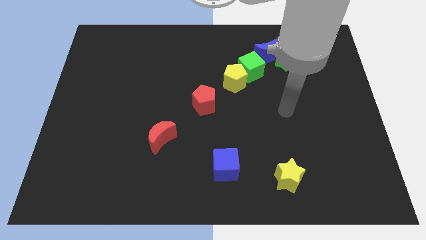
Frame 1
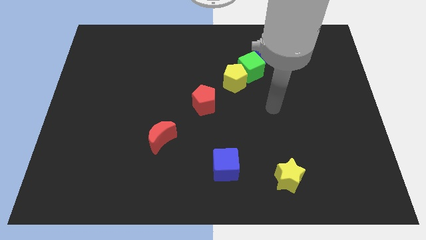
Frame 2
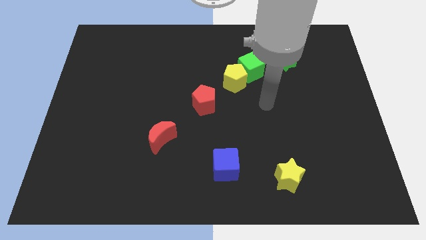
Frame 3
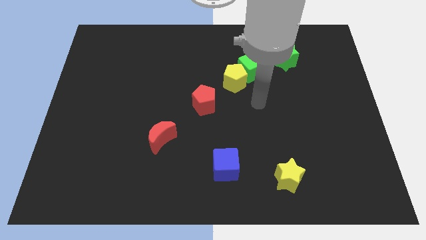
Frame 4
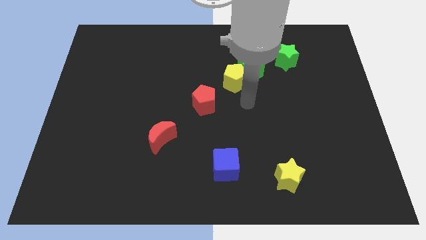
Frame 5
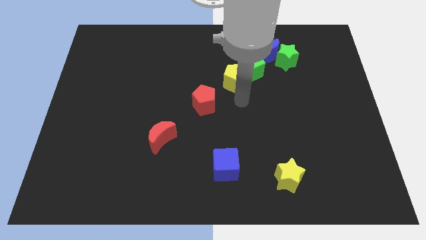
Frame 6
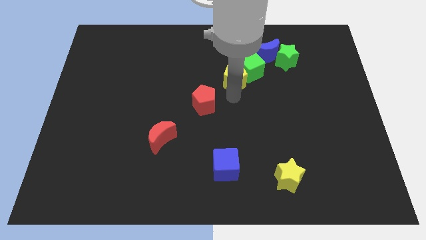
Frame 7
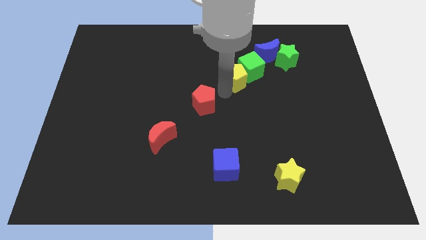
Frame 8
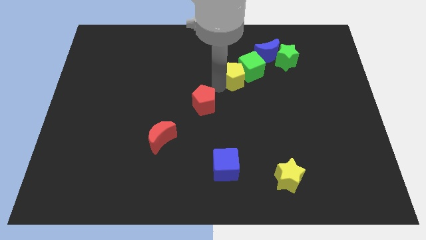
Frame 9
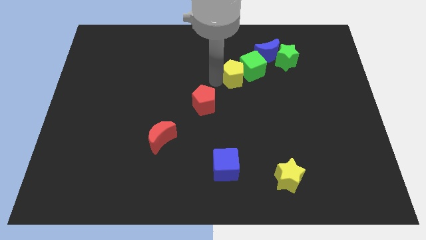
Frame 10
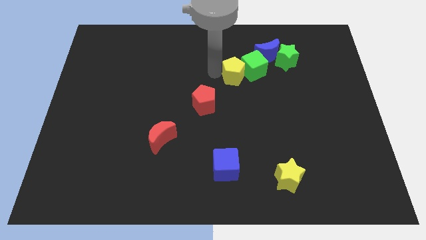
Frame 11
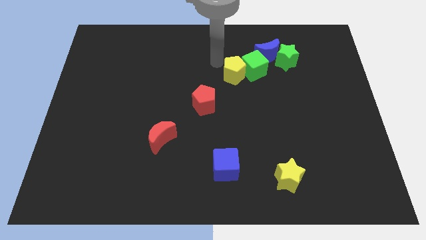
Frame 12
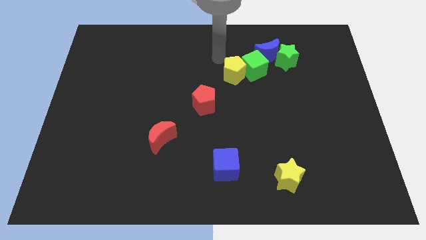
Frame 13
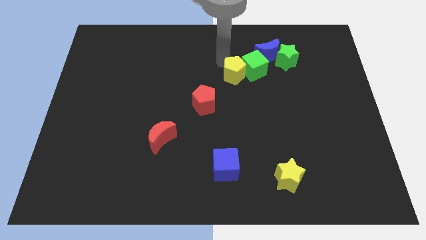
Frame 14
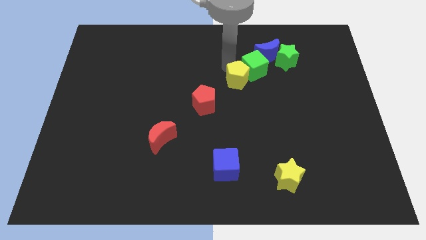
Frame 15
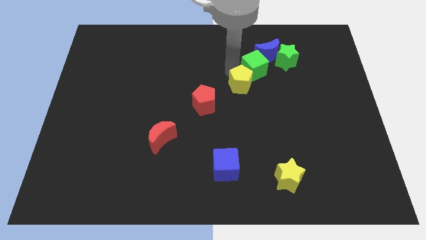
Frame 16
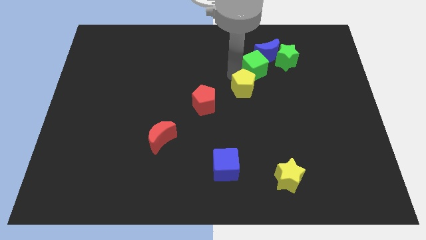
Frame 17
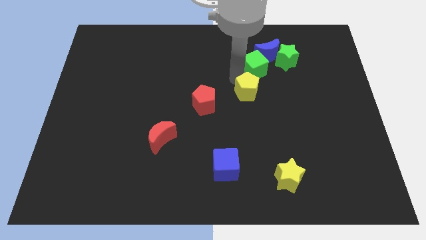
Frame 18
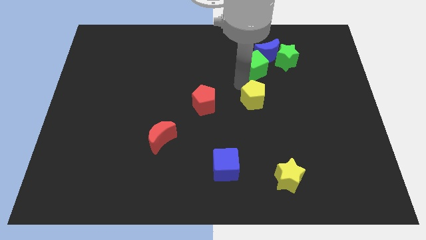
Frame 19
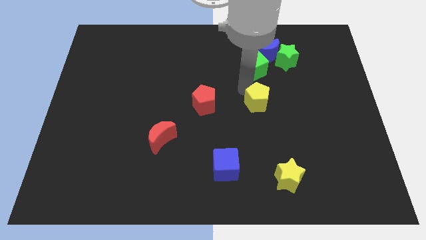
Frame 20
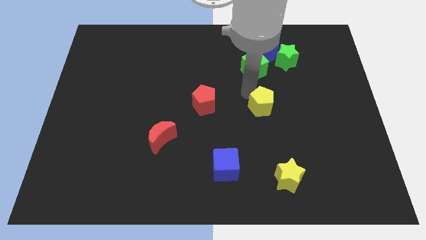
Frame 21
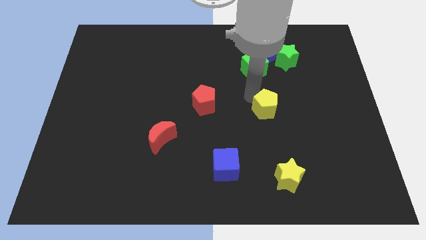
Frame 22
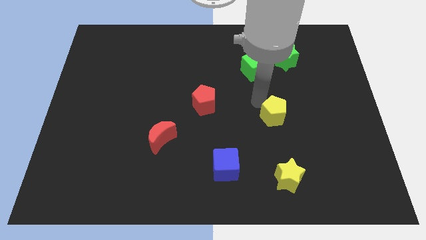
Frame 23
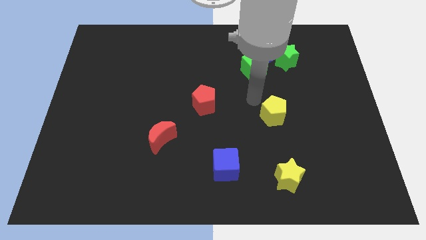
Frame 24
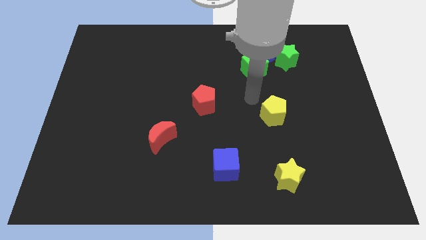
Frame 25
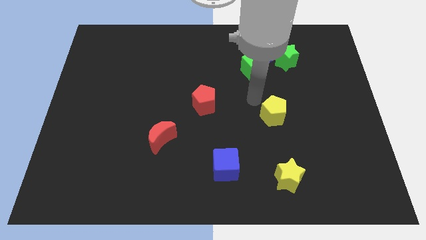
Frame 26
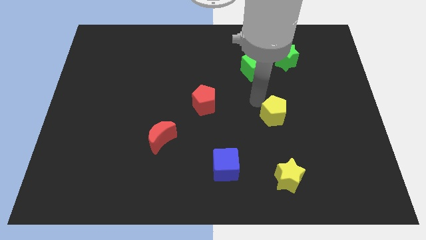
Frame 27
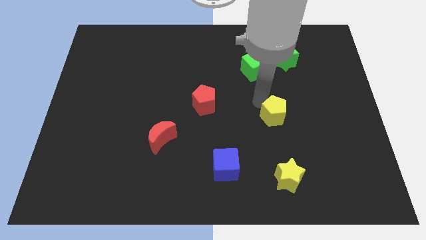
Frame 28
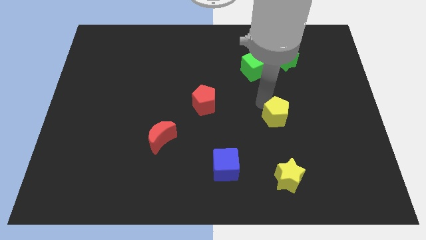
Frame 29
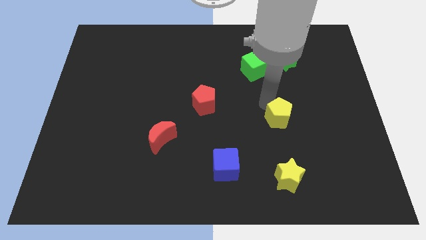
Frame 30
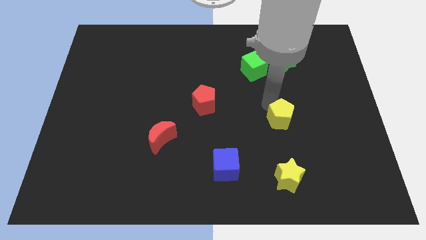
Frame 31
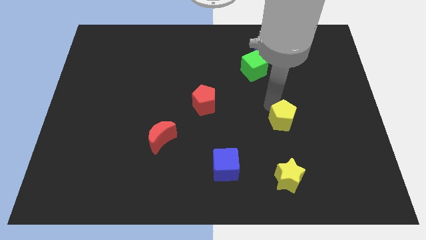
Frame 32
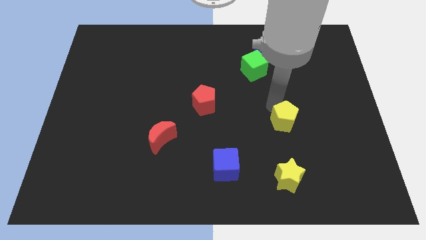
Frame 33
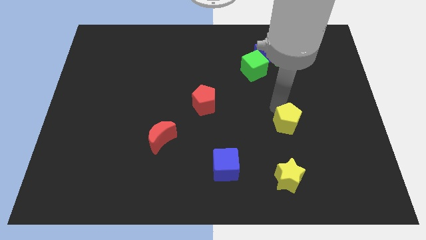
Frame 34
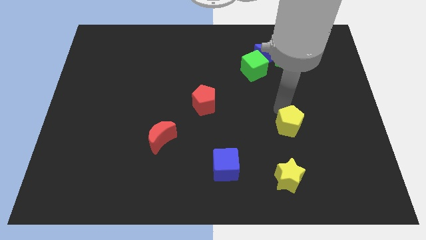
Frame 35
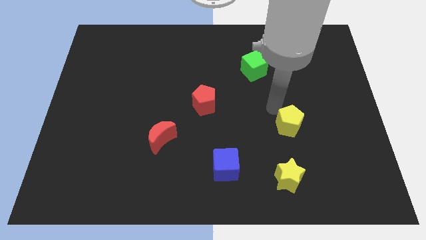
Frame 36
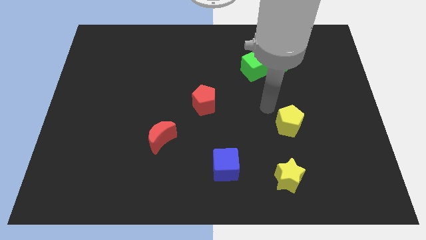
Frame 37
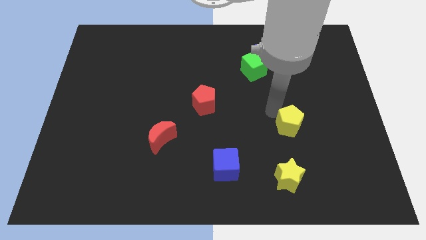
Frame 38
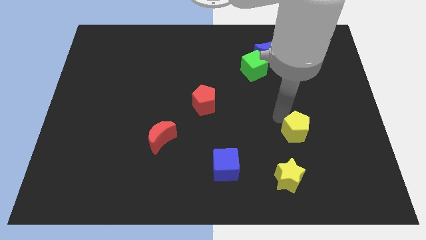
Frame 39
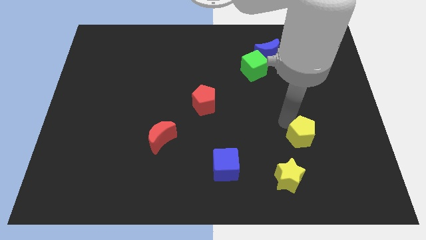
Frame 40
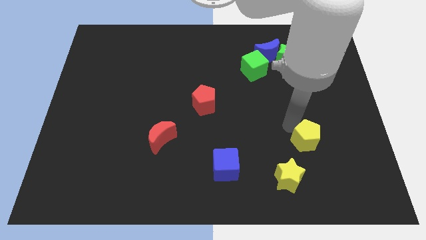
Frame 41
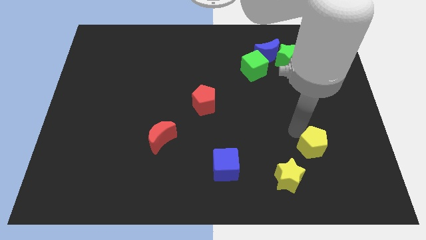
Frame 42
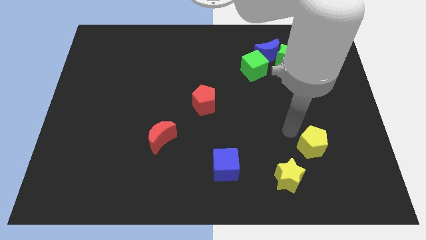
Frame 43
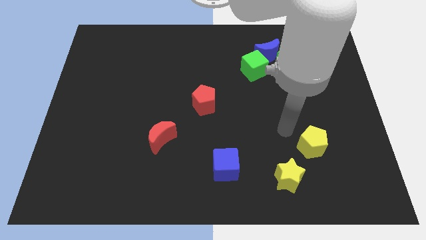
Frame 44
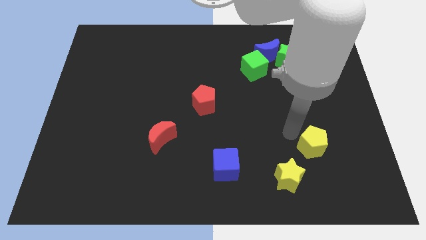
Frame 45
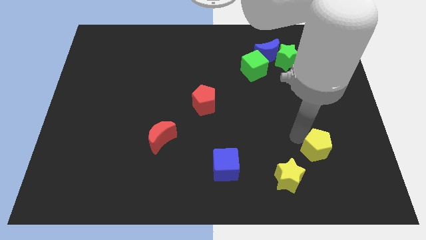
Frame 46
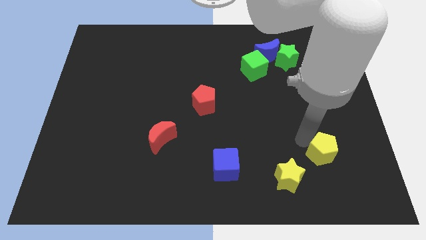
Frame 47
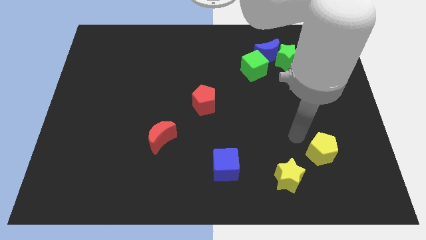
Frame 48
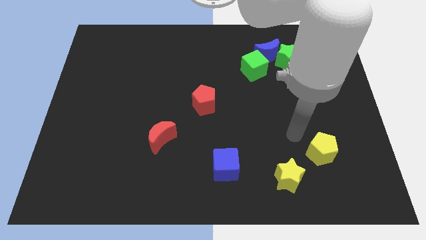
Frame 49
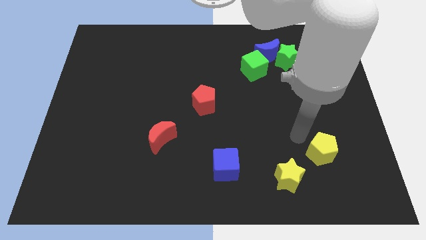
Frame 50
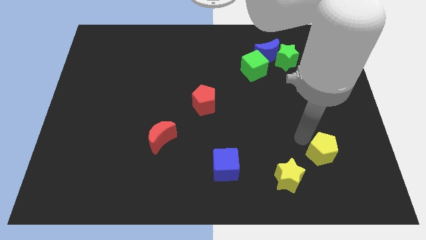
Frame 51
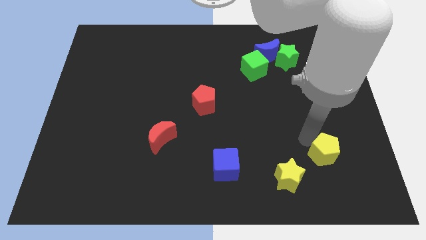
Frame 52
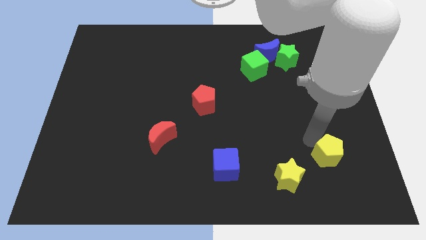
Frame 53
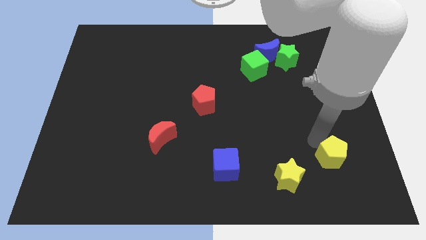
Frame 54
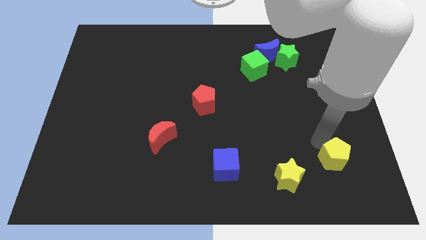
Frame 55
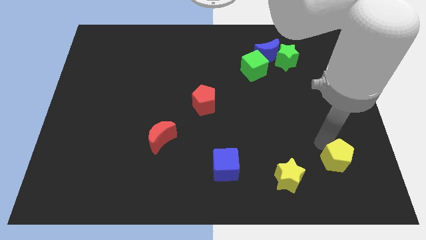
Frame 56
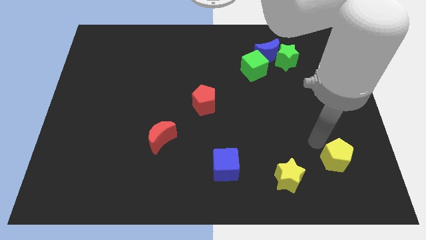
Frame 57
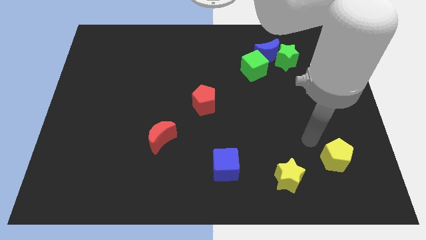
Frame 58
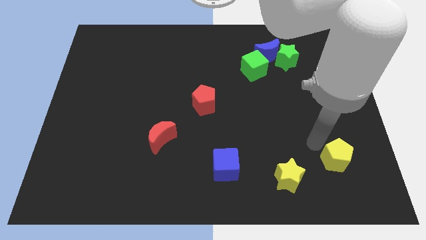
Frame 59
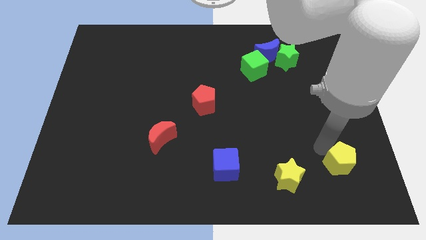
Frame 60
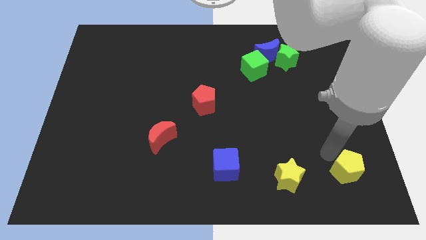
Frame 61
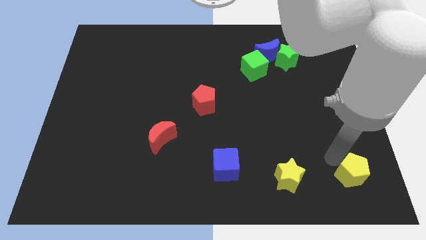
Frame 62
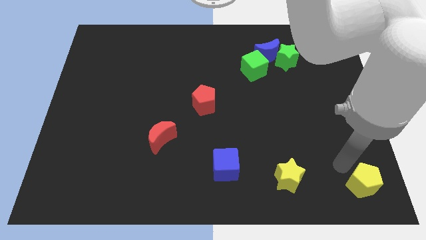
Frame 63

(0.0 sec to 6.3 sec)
slide the yellow pentagon to the lower right corner

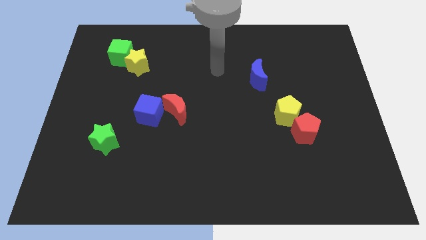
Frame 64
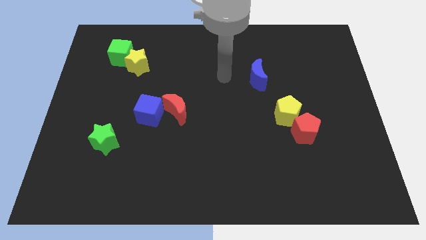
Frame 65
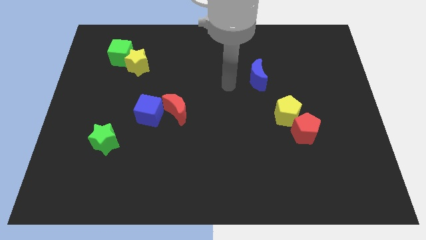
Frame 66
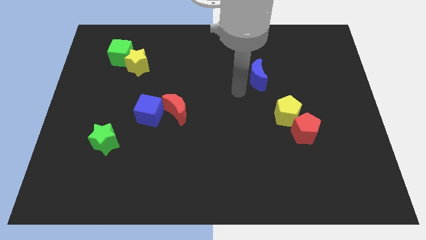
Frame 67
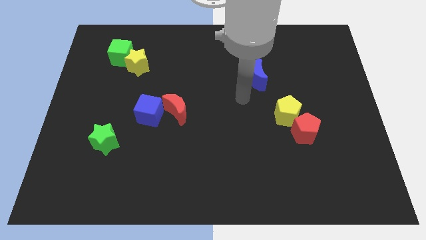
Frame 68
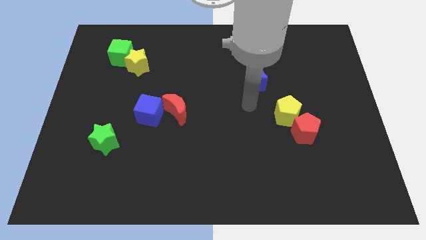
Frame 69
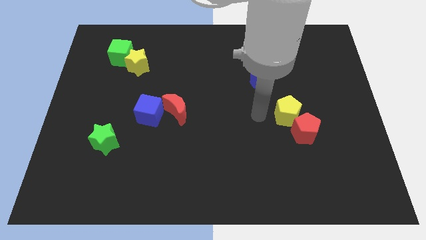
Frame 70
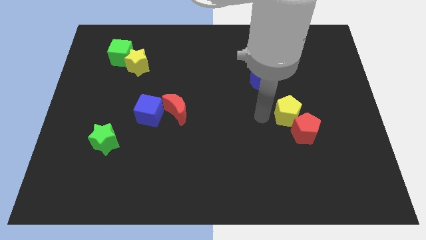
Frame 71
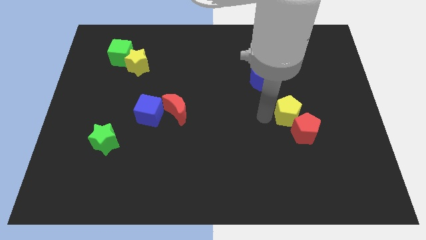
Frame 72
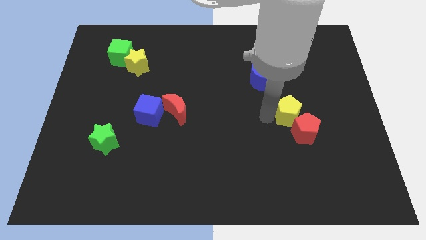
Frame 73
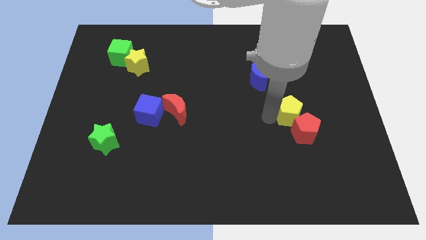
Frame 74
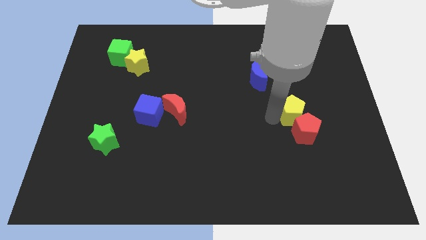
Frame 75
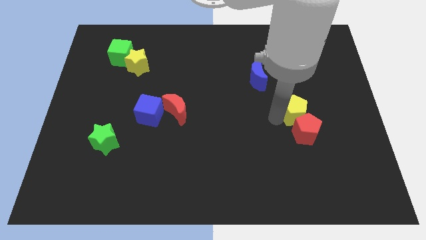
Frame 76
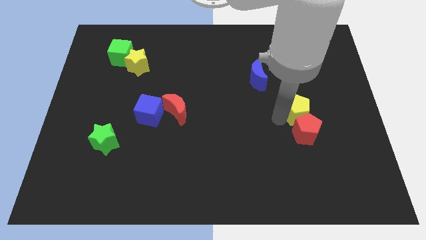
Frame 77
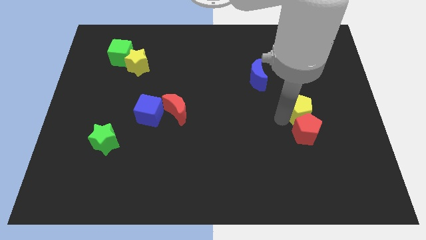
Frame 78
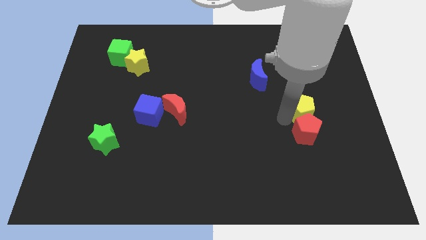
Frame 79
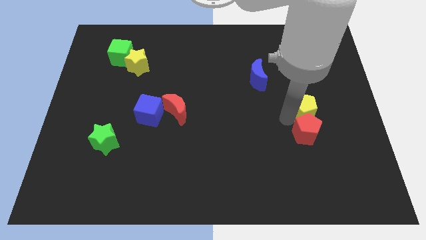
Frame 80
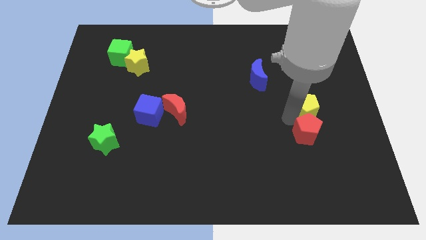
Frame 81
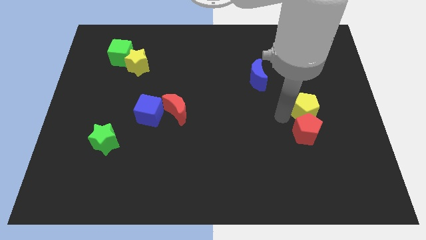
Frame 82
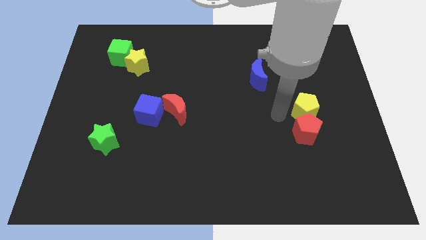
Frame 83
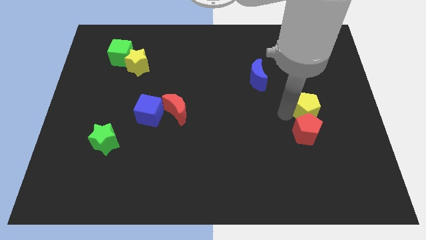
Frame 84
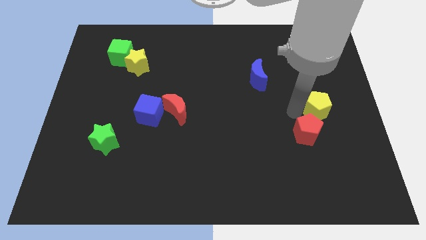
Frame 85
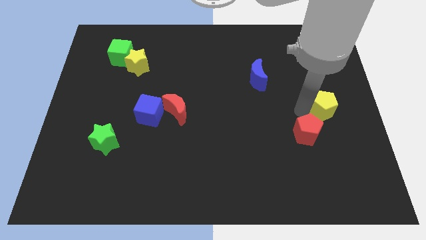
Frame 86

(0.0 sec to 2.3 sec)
push the yellow pentagon to the right side
